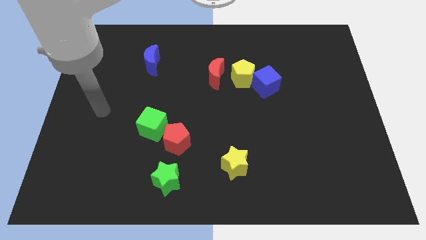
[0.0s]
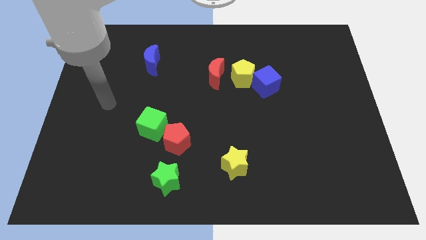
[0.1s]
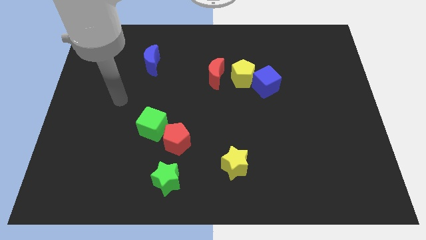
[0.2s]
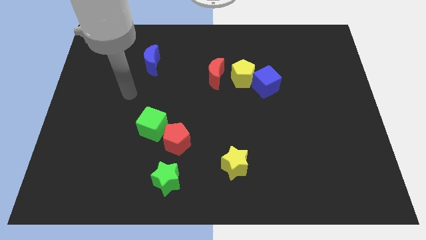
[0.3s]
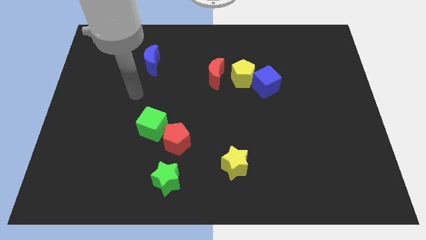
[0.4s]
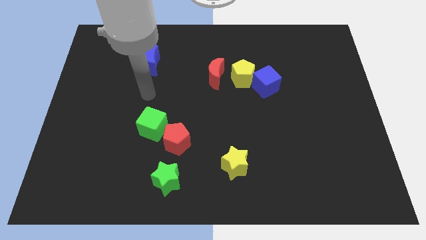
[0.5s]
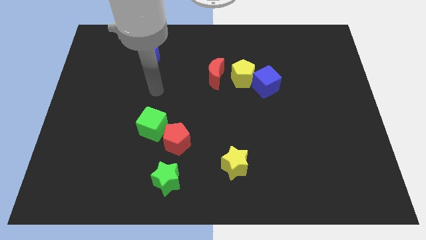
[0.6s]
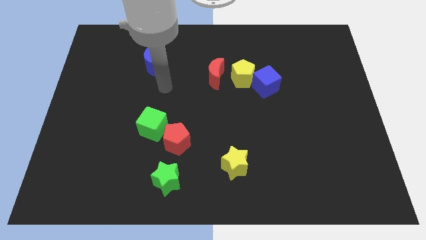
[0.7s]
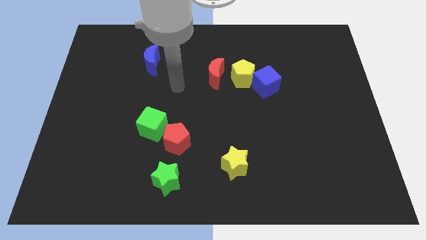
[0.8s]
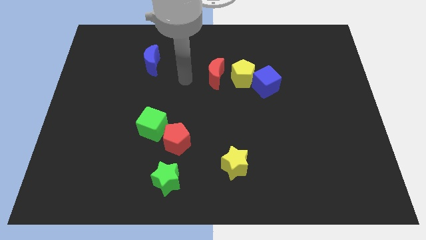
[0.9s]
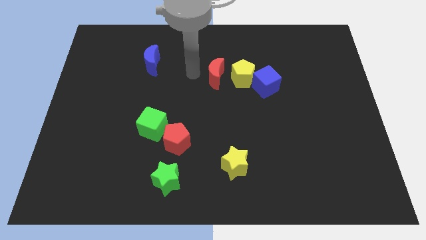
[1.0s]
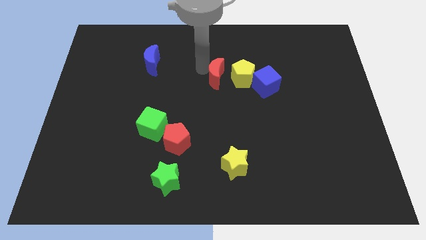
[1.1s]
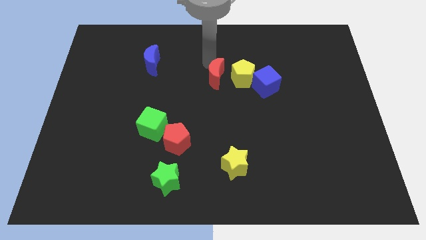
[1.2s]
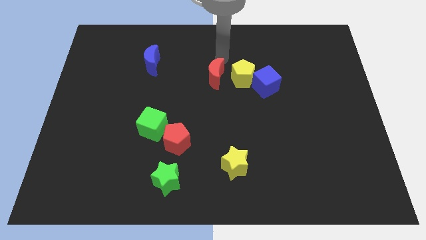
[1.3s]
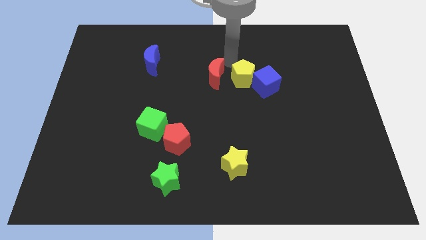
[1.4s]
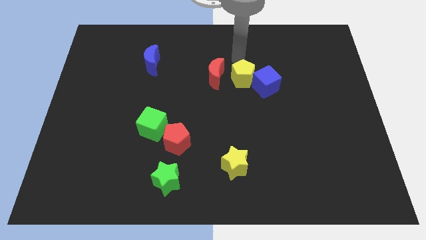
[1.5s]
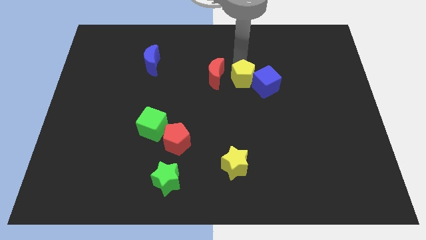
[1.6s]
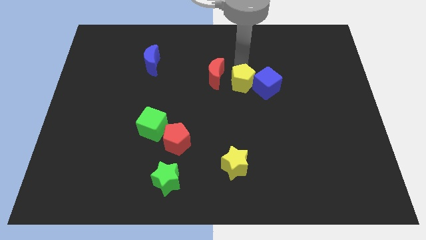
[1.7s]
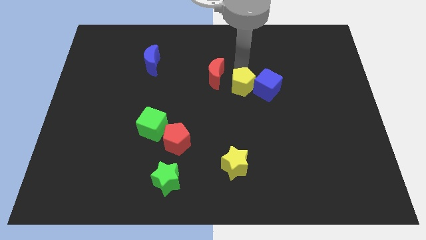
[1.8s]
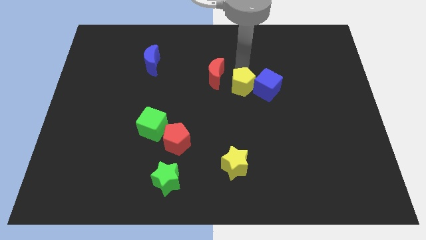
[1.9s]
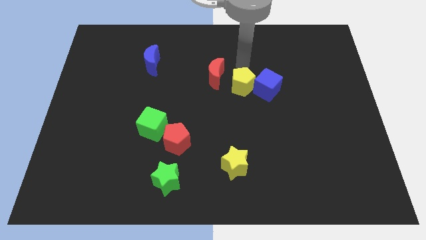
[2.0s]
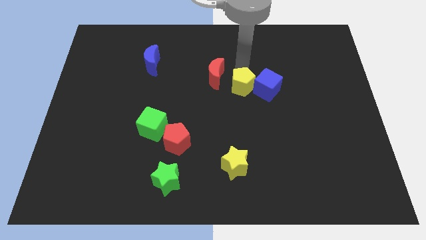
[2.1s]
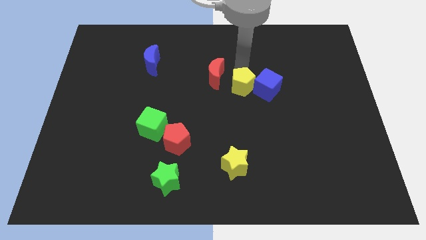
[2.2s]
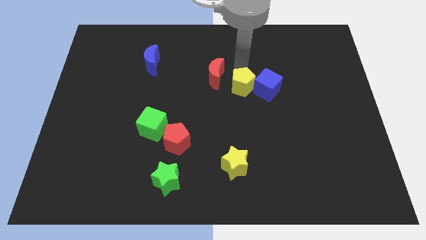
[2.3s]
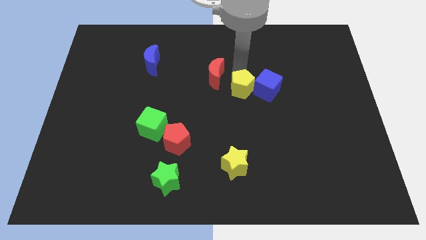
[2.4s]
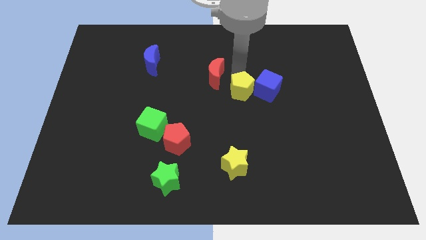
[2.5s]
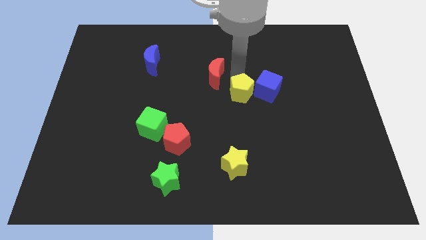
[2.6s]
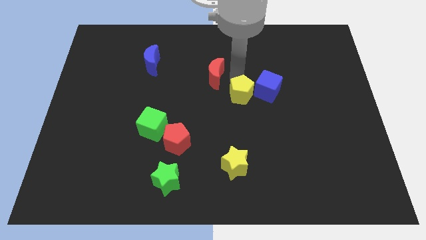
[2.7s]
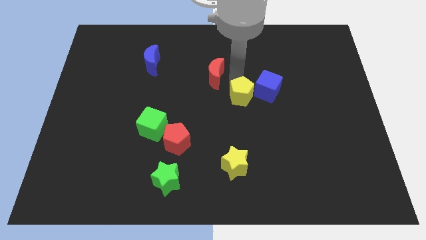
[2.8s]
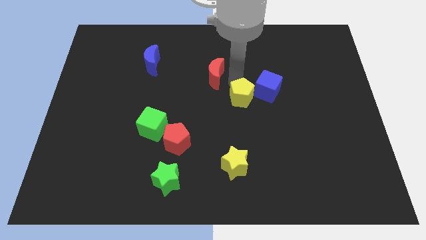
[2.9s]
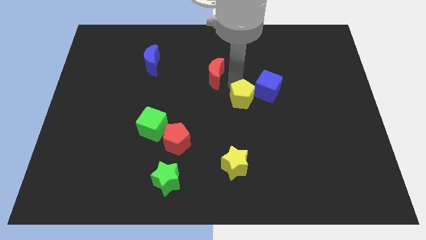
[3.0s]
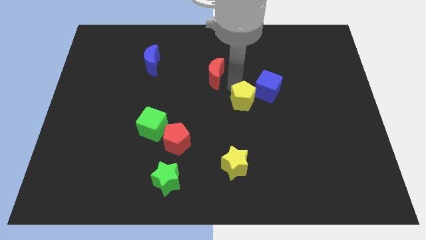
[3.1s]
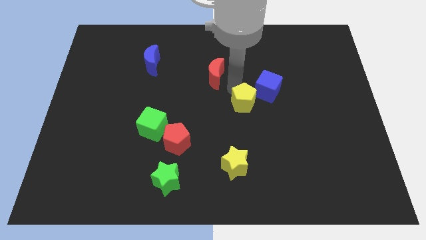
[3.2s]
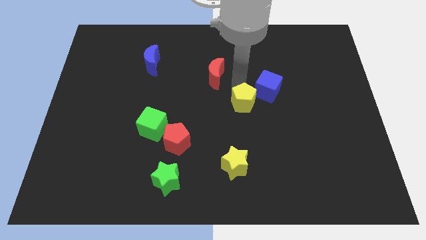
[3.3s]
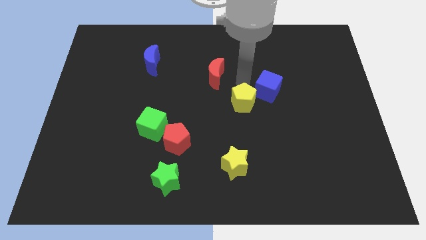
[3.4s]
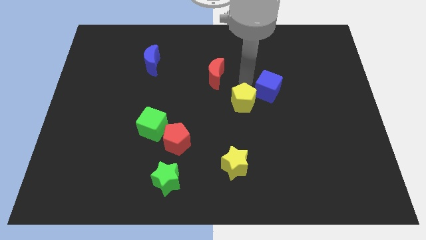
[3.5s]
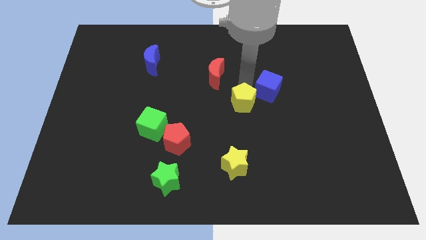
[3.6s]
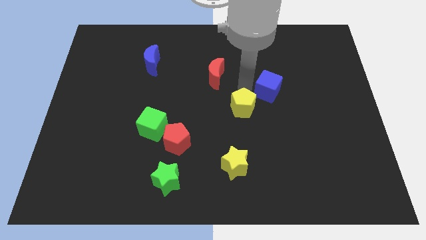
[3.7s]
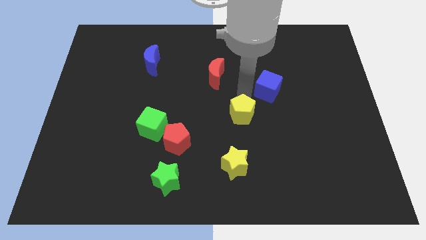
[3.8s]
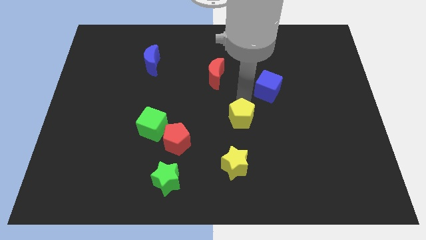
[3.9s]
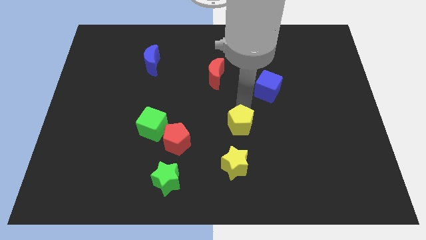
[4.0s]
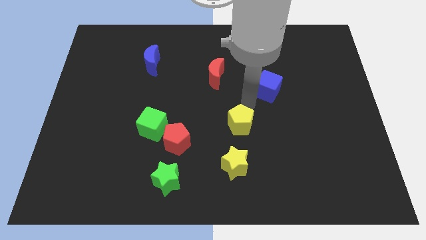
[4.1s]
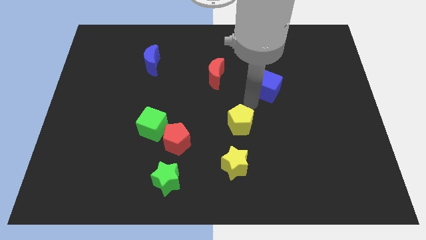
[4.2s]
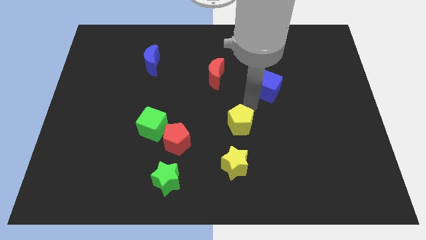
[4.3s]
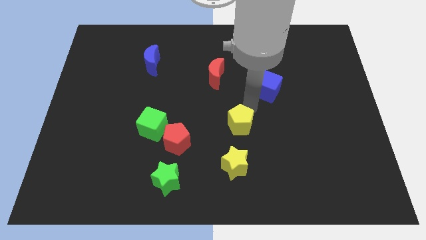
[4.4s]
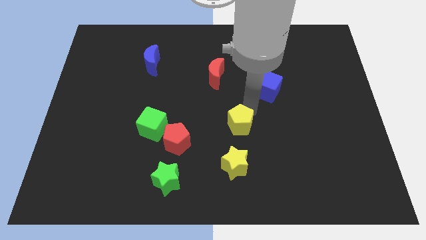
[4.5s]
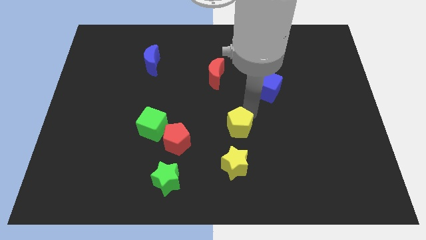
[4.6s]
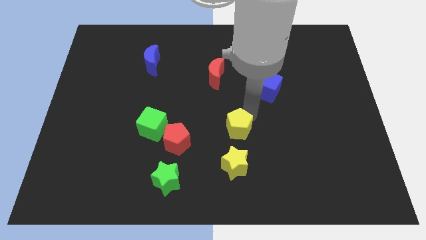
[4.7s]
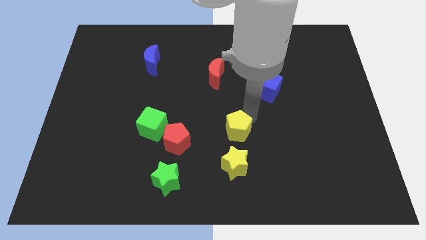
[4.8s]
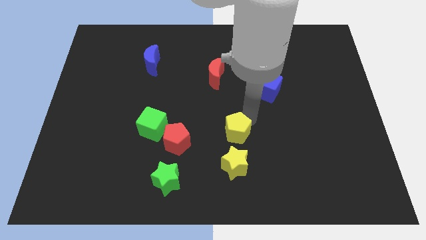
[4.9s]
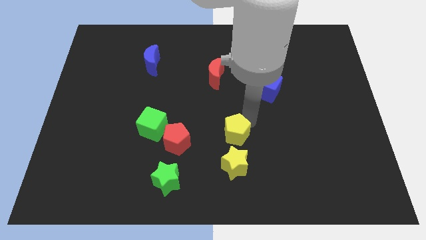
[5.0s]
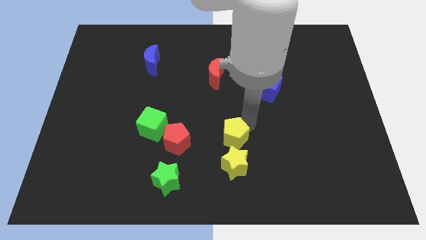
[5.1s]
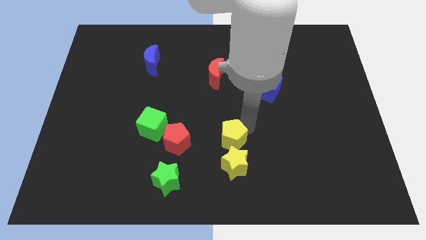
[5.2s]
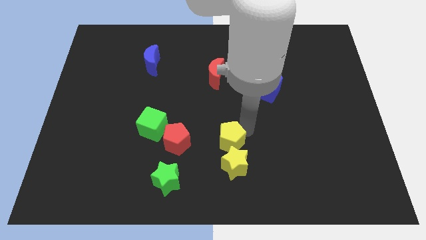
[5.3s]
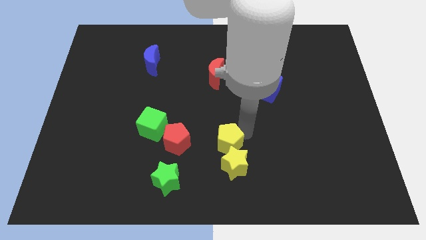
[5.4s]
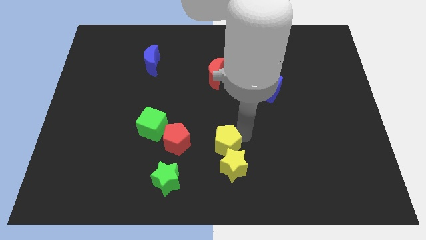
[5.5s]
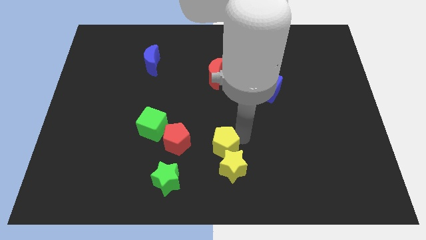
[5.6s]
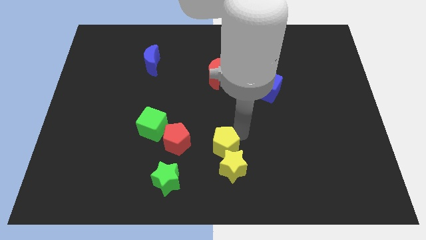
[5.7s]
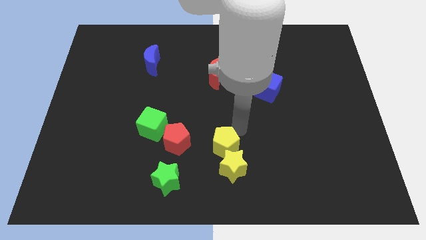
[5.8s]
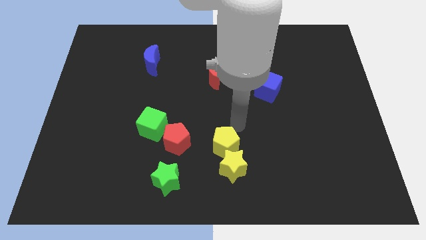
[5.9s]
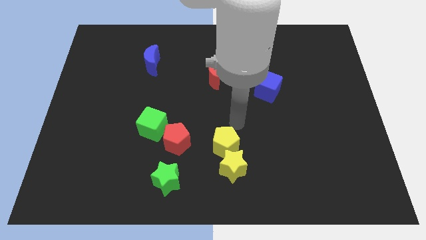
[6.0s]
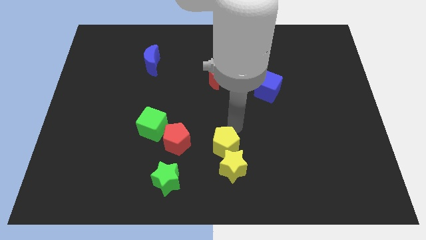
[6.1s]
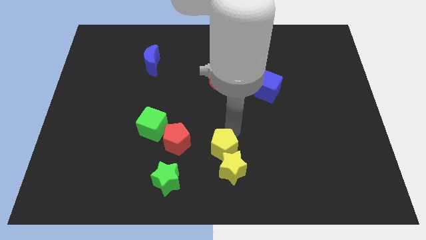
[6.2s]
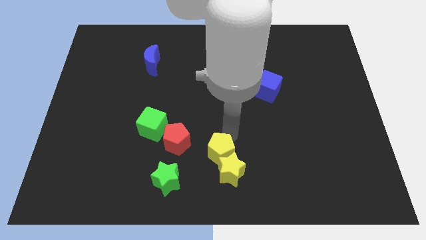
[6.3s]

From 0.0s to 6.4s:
slide the yellow pentagon to the bottom
